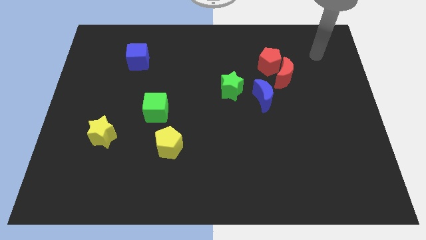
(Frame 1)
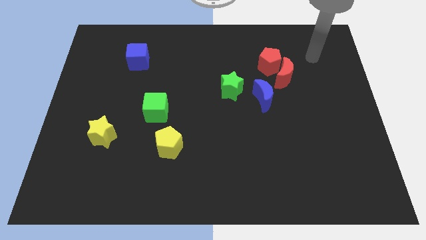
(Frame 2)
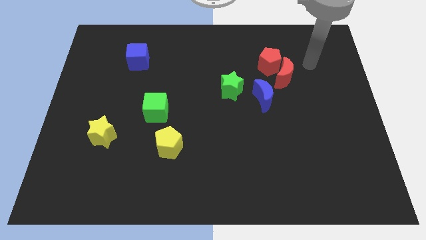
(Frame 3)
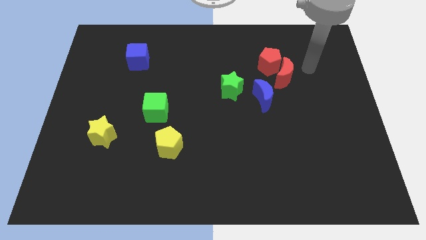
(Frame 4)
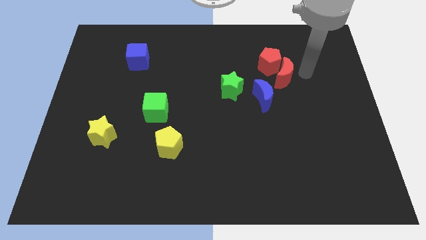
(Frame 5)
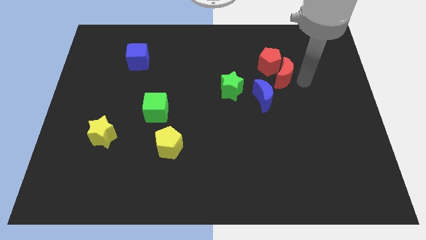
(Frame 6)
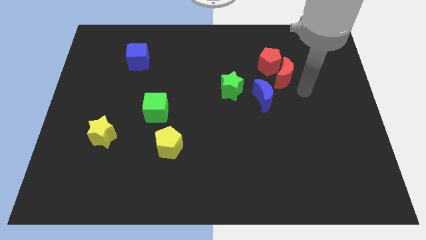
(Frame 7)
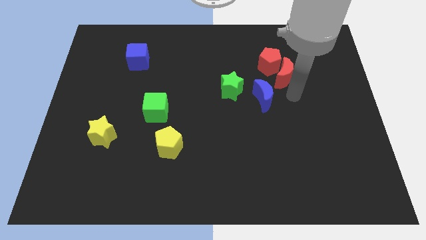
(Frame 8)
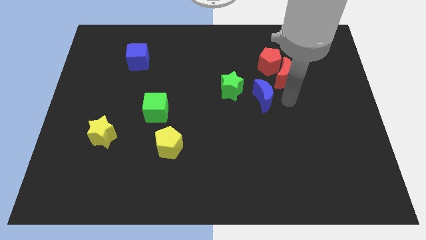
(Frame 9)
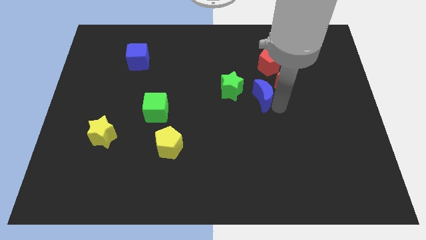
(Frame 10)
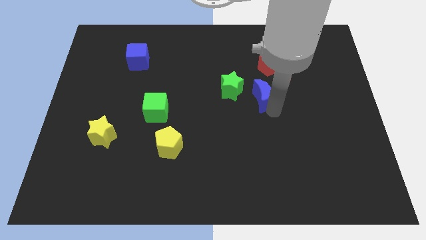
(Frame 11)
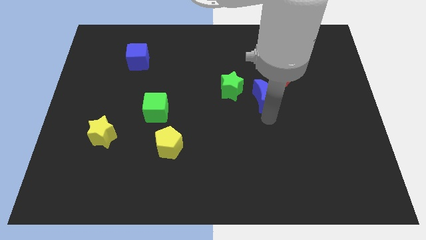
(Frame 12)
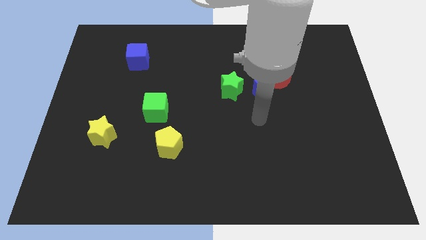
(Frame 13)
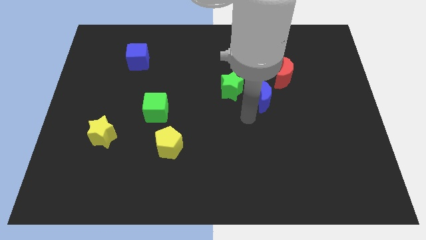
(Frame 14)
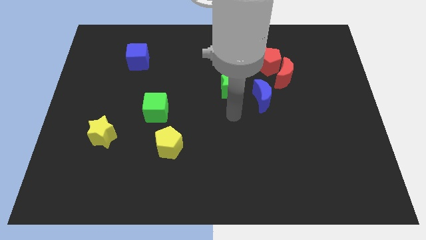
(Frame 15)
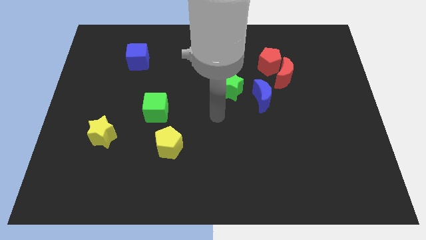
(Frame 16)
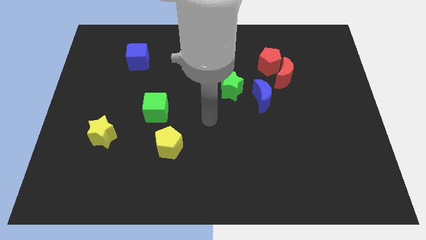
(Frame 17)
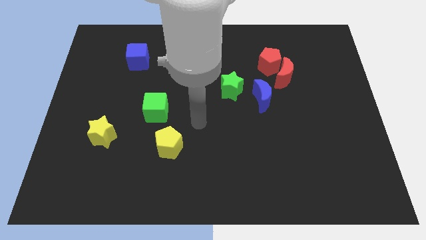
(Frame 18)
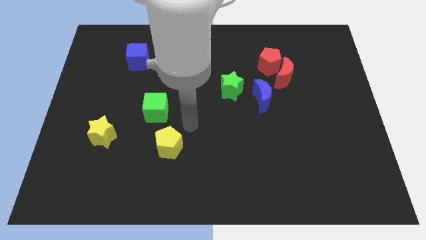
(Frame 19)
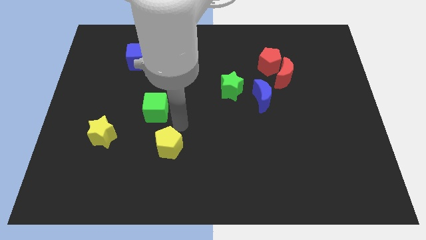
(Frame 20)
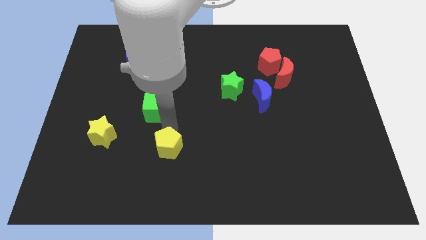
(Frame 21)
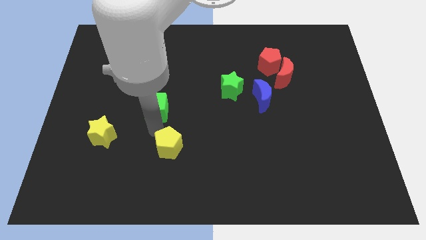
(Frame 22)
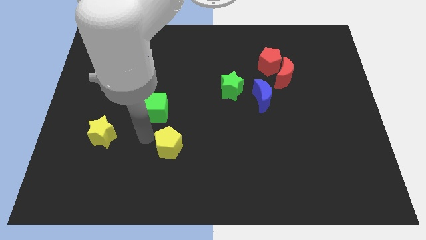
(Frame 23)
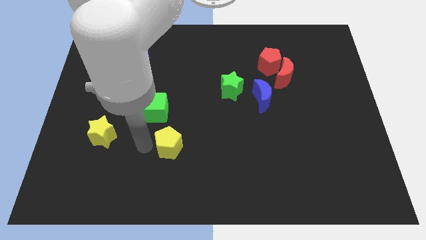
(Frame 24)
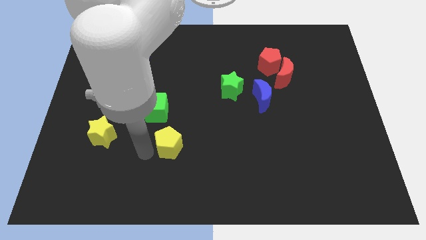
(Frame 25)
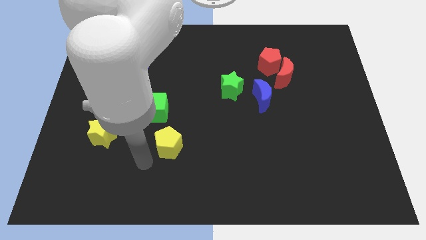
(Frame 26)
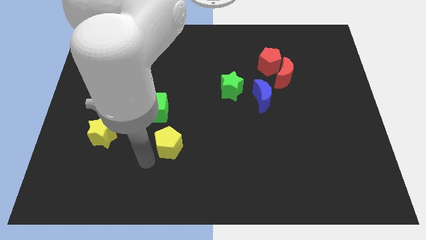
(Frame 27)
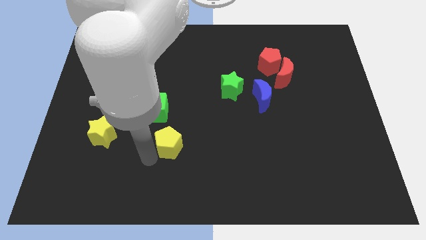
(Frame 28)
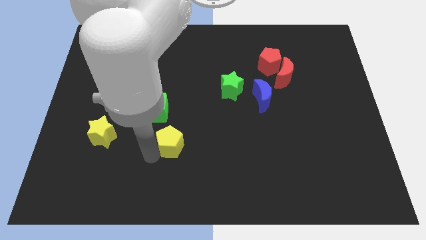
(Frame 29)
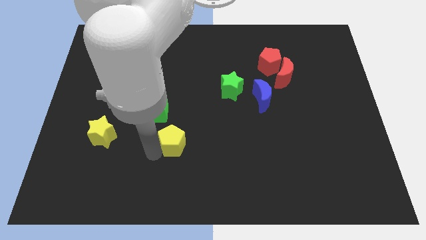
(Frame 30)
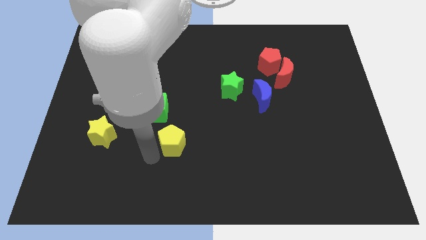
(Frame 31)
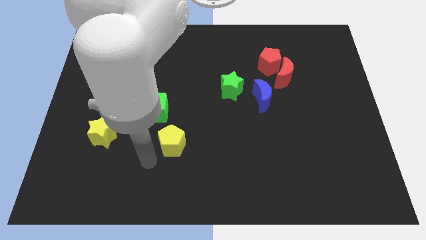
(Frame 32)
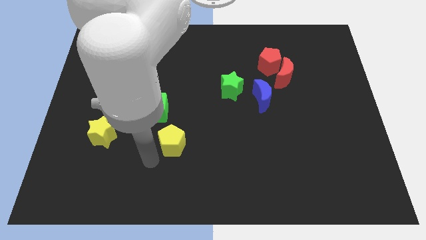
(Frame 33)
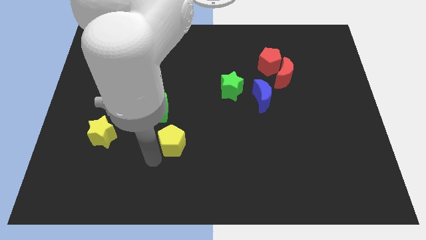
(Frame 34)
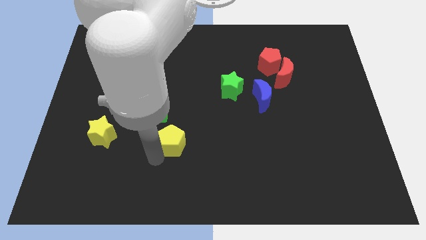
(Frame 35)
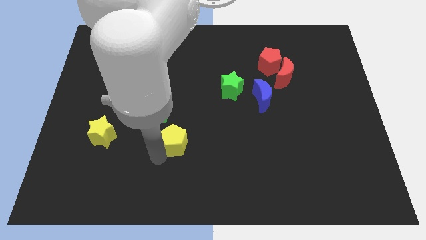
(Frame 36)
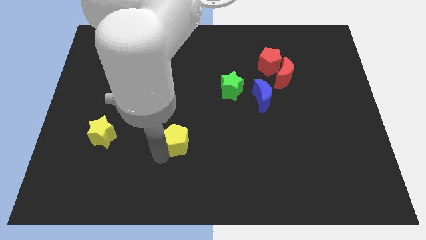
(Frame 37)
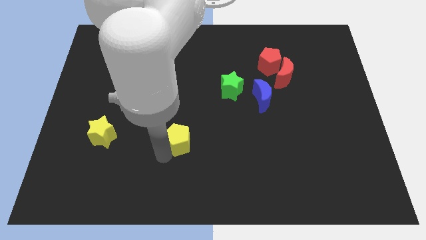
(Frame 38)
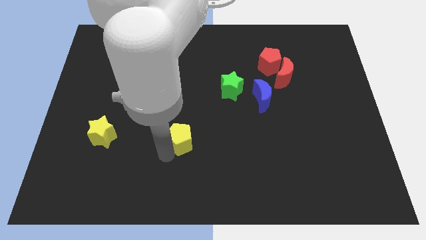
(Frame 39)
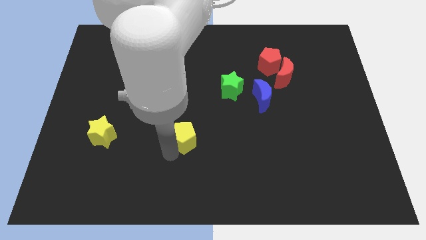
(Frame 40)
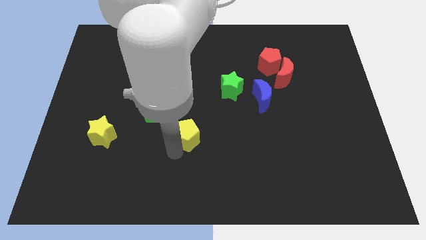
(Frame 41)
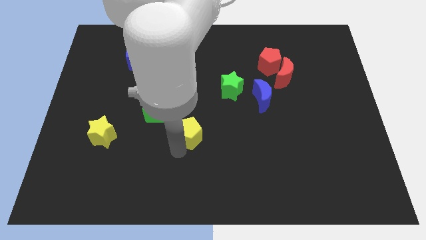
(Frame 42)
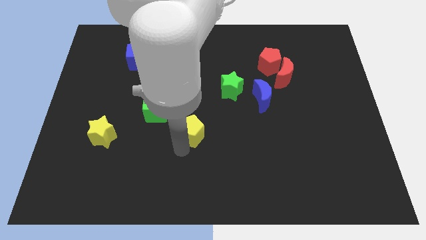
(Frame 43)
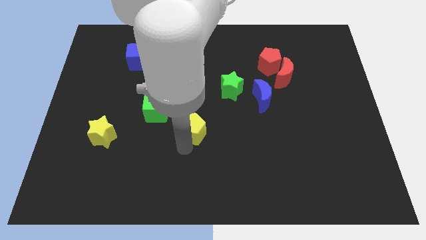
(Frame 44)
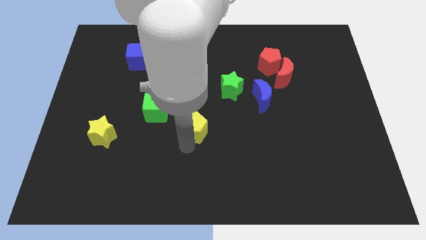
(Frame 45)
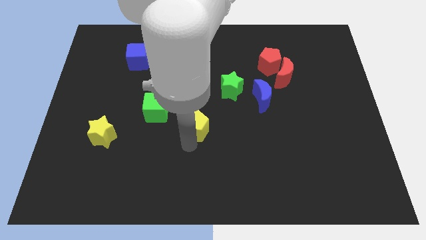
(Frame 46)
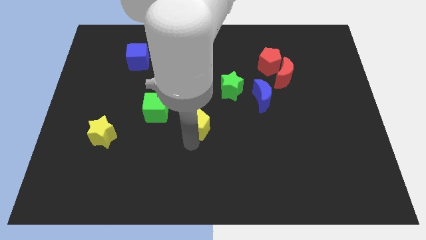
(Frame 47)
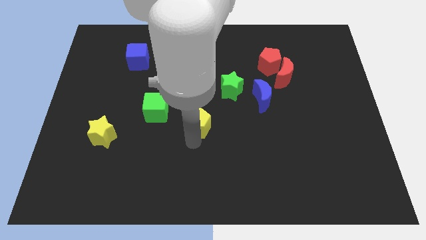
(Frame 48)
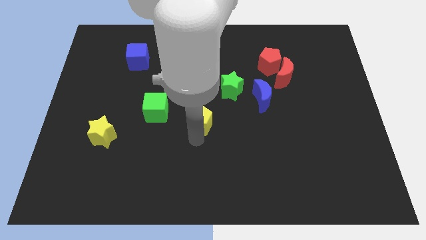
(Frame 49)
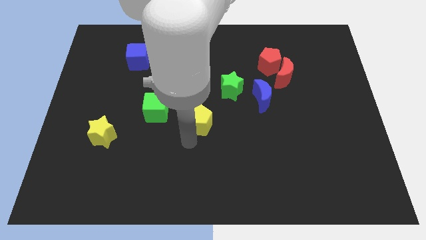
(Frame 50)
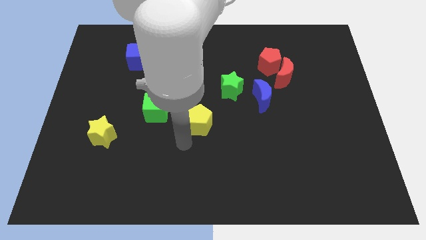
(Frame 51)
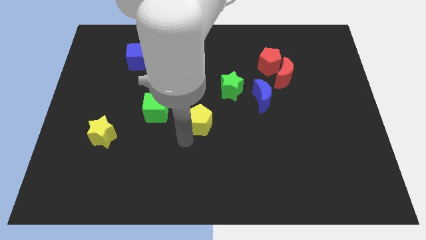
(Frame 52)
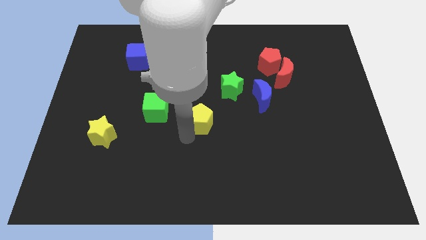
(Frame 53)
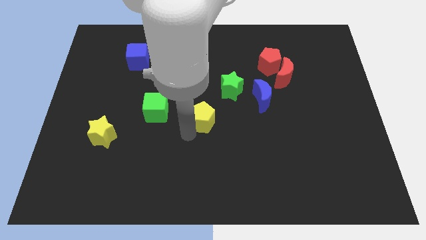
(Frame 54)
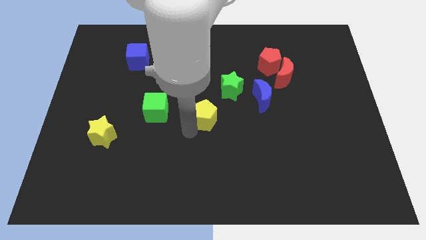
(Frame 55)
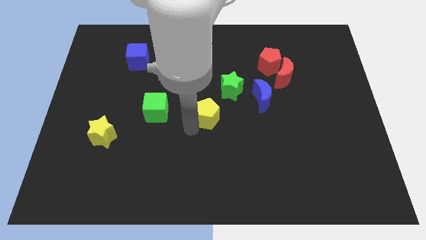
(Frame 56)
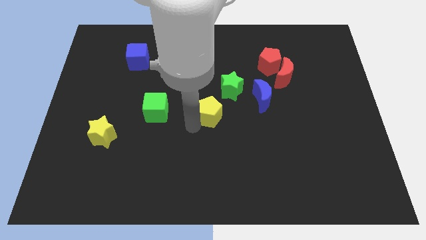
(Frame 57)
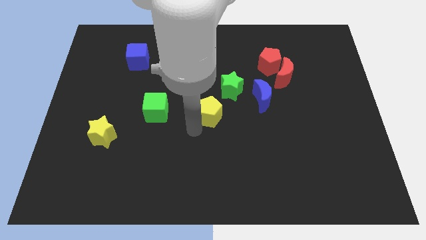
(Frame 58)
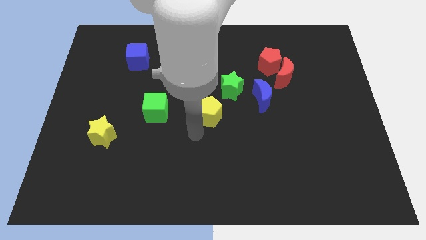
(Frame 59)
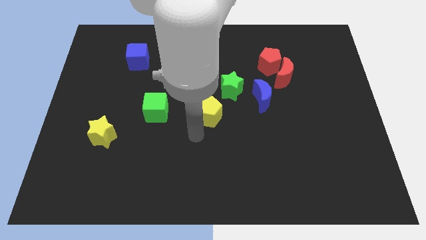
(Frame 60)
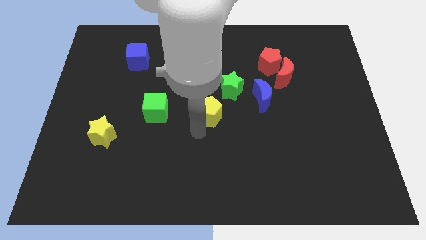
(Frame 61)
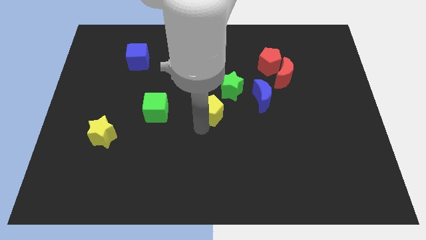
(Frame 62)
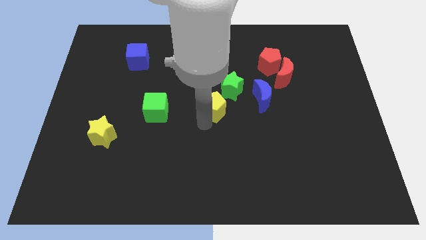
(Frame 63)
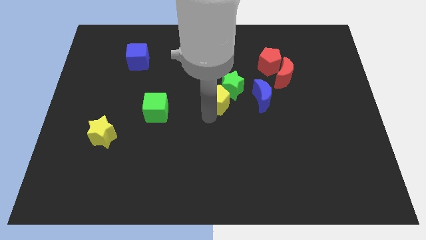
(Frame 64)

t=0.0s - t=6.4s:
push the yellow pentagon towards the green star

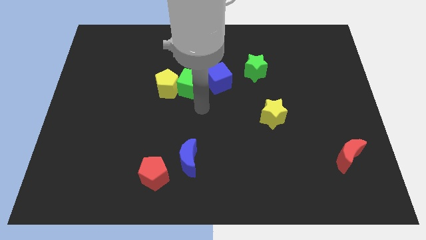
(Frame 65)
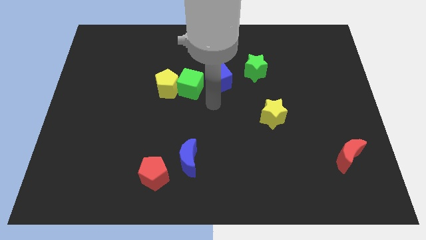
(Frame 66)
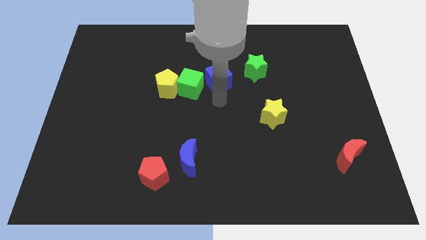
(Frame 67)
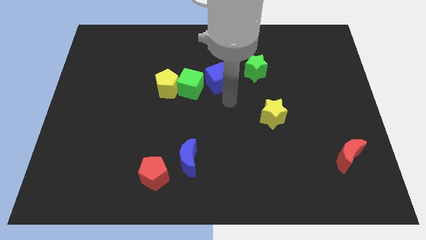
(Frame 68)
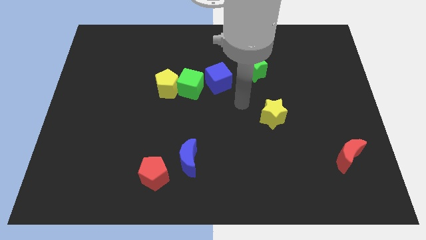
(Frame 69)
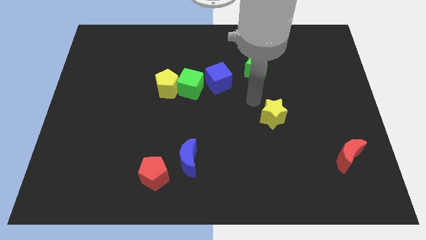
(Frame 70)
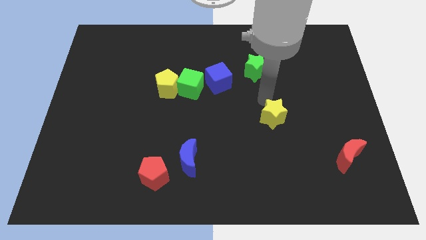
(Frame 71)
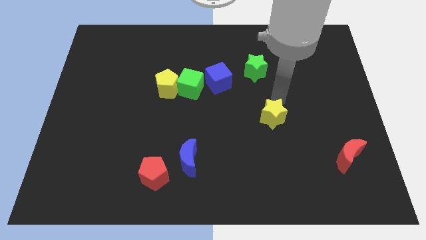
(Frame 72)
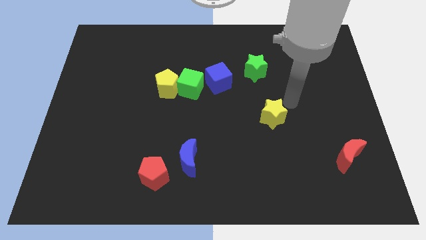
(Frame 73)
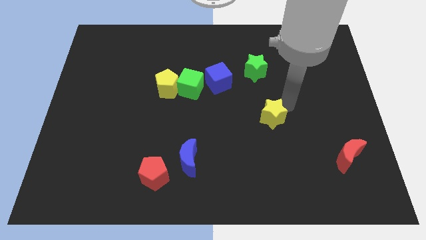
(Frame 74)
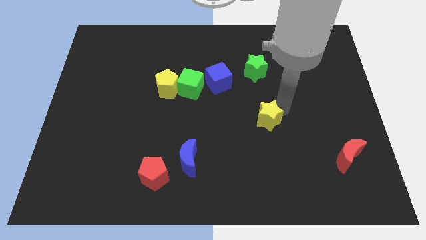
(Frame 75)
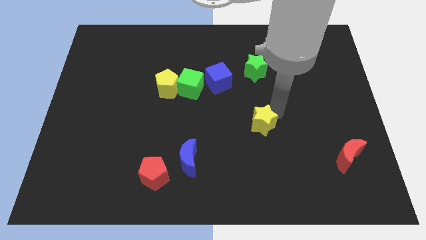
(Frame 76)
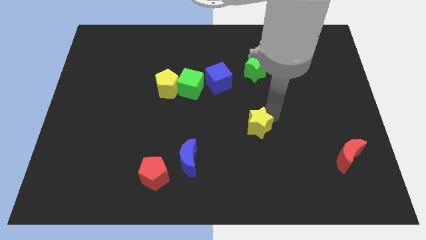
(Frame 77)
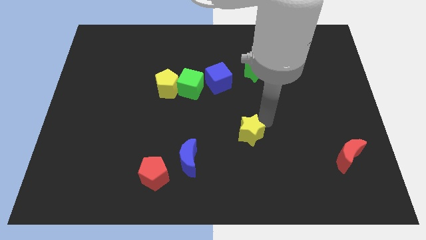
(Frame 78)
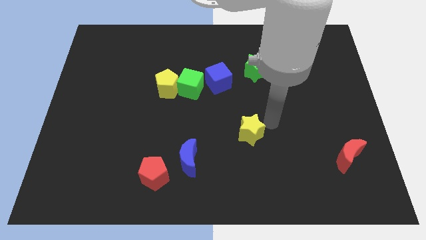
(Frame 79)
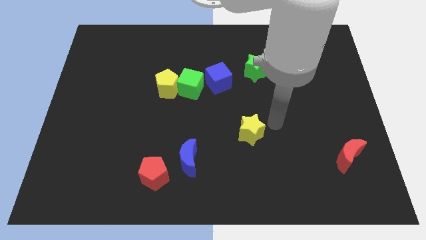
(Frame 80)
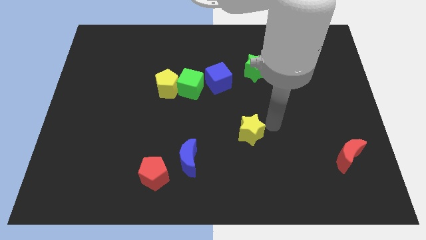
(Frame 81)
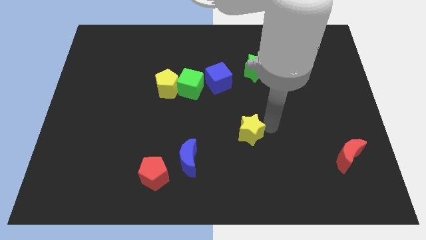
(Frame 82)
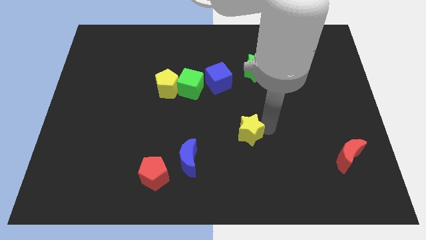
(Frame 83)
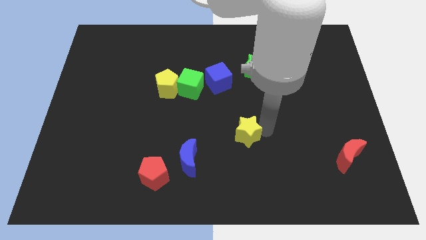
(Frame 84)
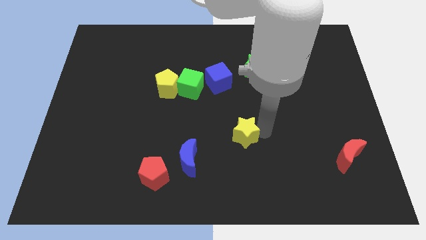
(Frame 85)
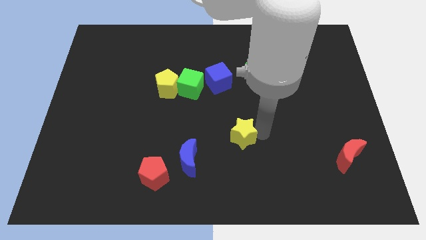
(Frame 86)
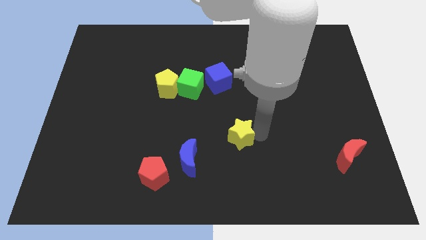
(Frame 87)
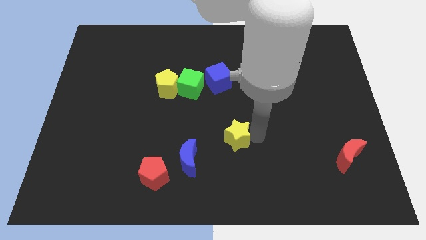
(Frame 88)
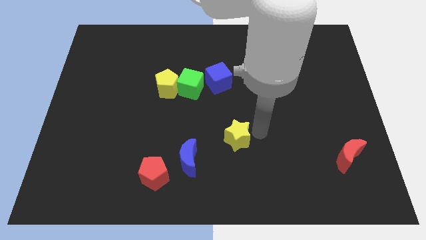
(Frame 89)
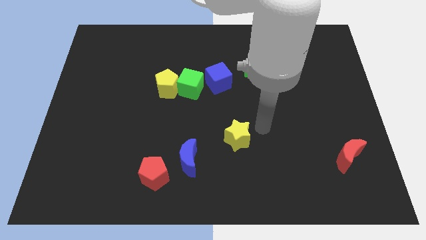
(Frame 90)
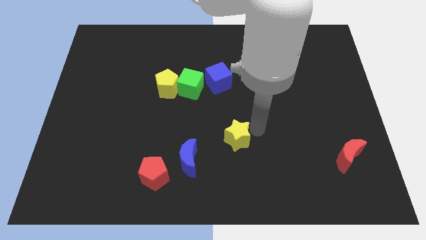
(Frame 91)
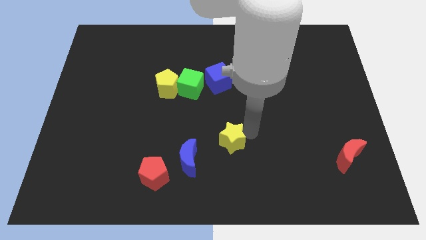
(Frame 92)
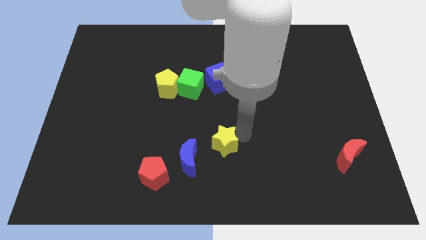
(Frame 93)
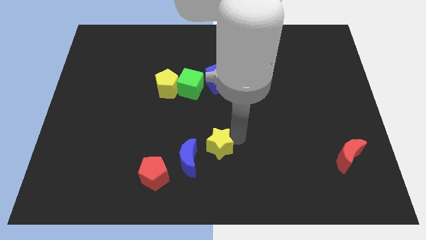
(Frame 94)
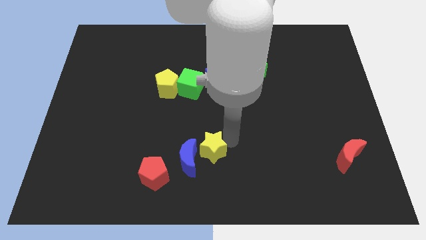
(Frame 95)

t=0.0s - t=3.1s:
move the yellow star next to the blue moon
